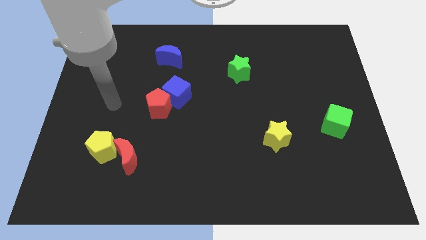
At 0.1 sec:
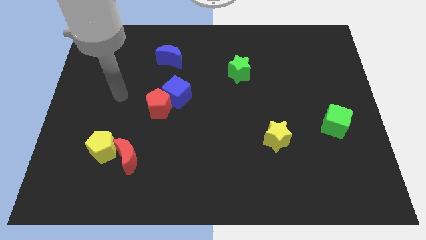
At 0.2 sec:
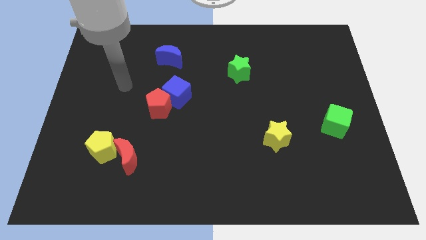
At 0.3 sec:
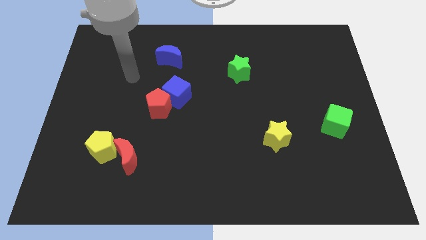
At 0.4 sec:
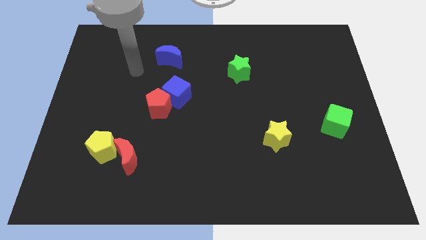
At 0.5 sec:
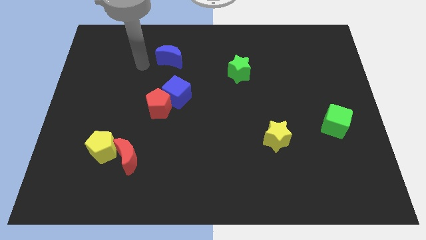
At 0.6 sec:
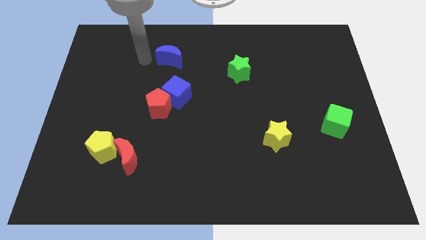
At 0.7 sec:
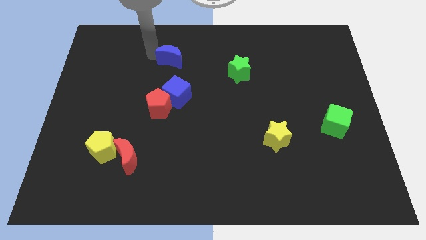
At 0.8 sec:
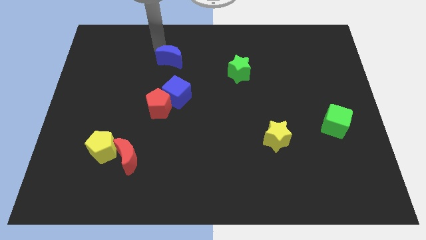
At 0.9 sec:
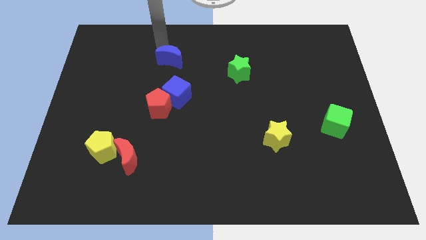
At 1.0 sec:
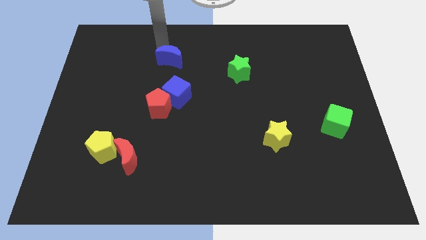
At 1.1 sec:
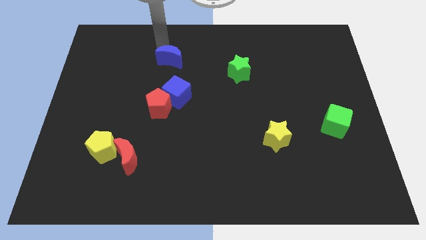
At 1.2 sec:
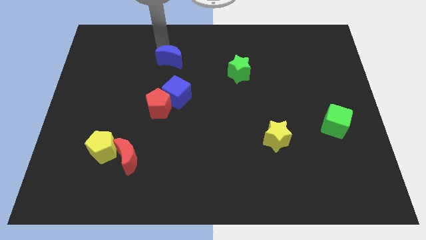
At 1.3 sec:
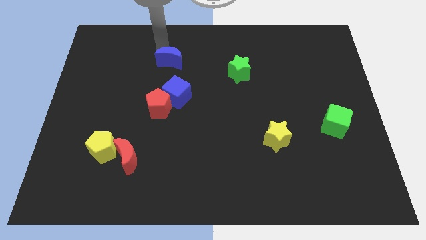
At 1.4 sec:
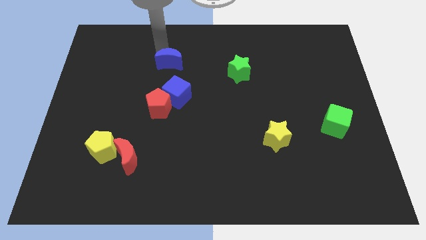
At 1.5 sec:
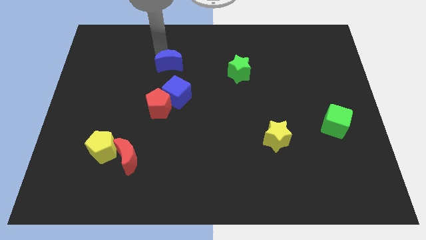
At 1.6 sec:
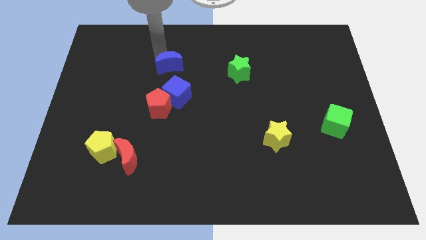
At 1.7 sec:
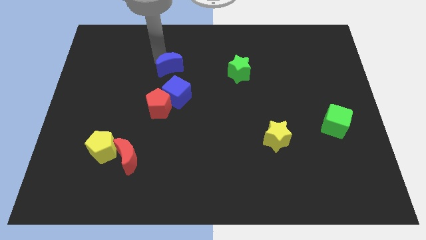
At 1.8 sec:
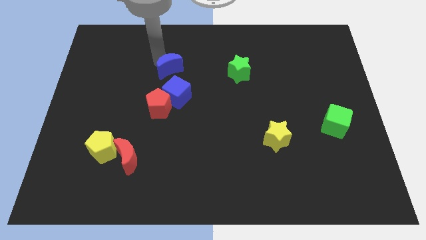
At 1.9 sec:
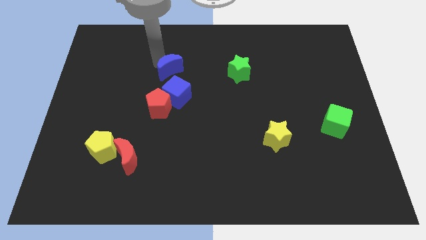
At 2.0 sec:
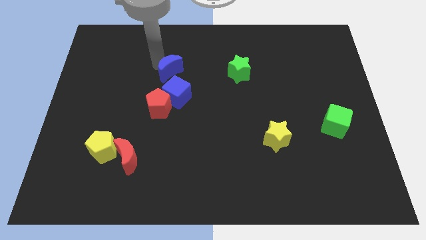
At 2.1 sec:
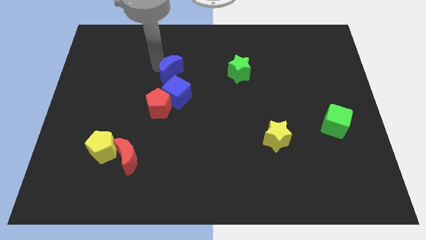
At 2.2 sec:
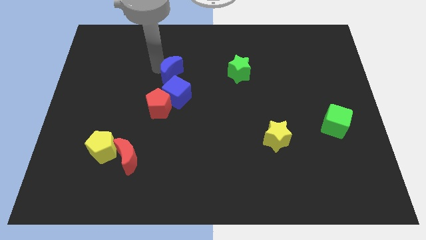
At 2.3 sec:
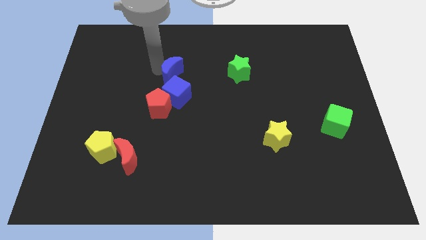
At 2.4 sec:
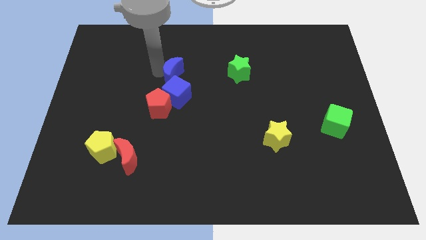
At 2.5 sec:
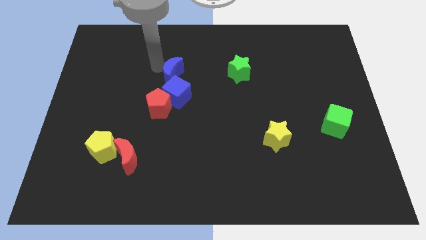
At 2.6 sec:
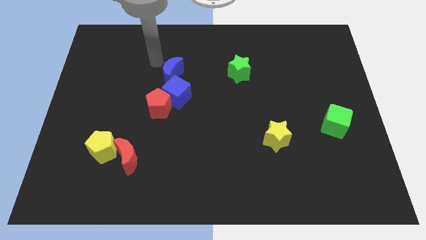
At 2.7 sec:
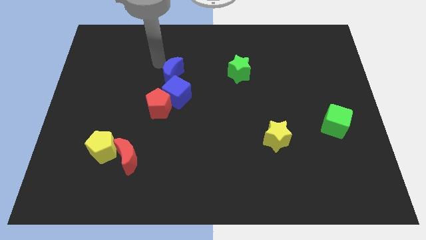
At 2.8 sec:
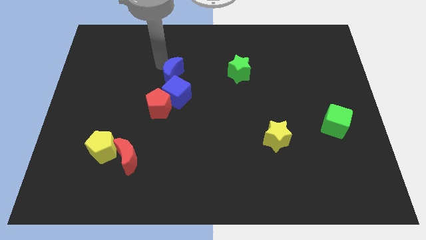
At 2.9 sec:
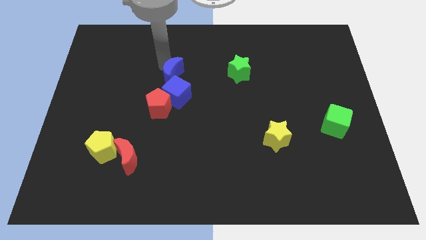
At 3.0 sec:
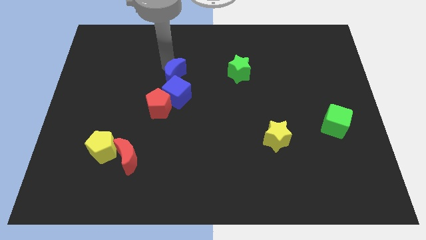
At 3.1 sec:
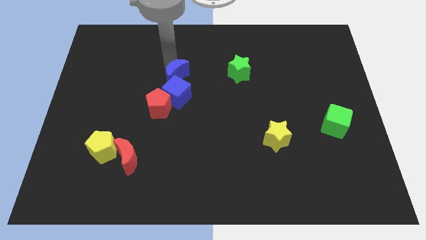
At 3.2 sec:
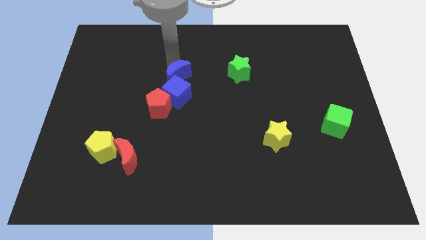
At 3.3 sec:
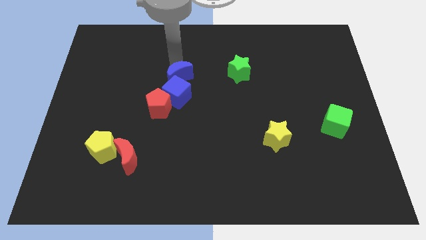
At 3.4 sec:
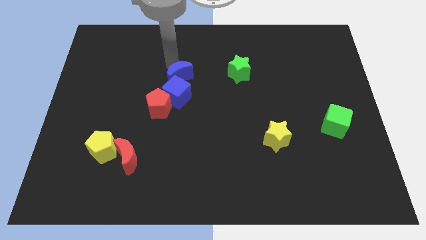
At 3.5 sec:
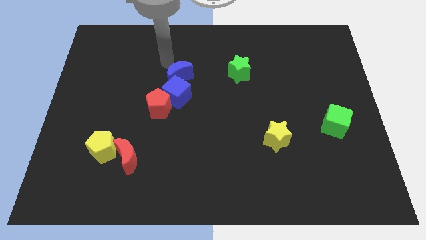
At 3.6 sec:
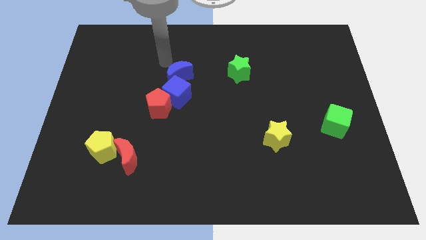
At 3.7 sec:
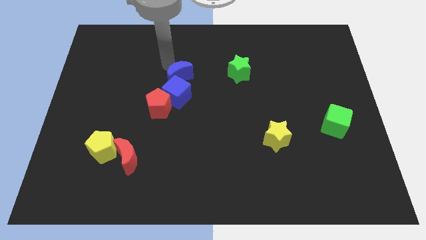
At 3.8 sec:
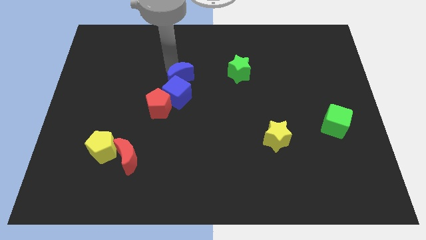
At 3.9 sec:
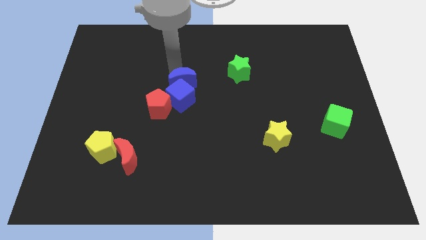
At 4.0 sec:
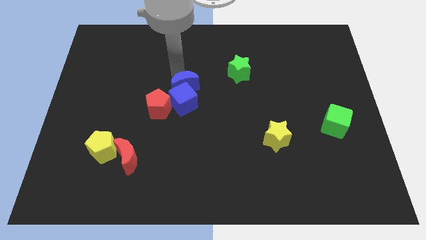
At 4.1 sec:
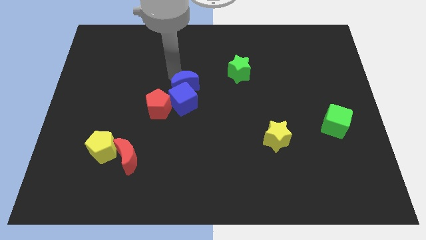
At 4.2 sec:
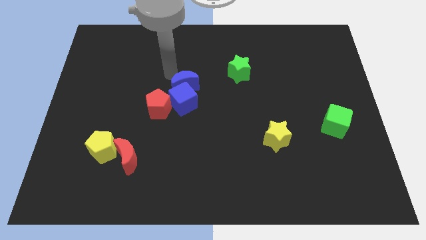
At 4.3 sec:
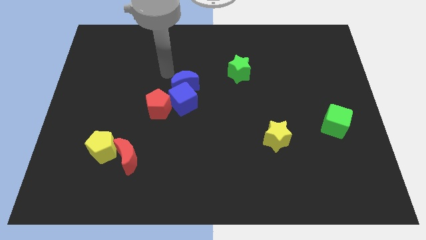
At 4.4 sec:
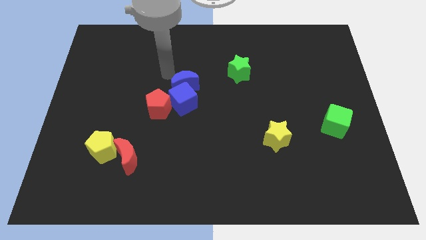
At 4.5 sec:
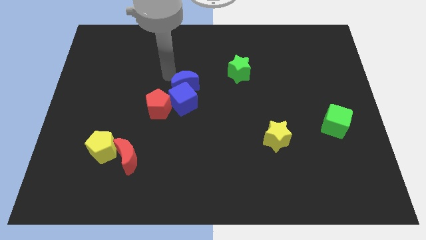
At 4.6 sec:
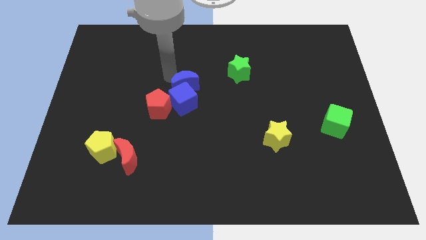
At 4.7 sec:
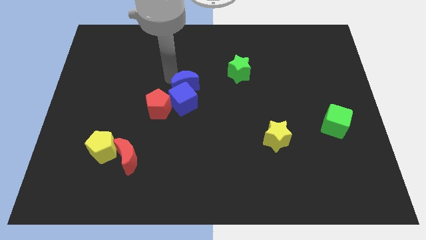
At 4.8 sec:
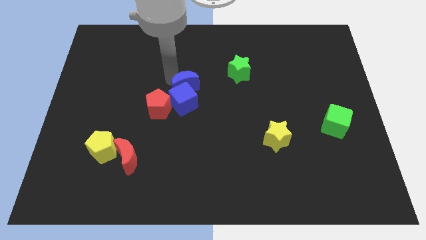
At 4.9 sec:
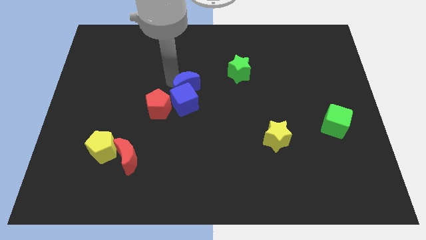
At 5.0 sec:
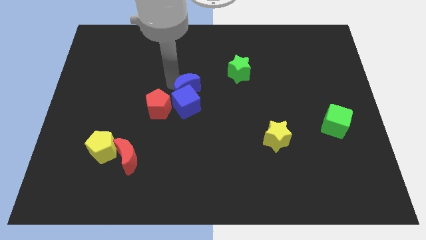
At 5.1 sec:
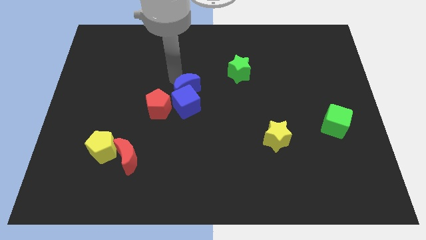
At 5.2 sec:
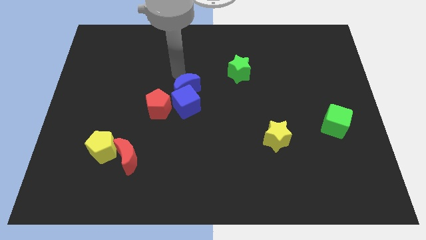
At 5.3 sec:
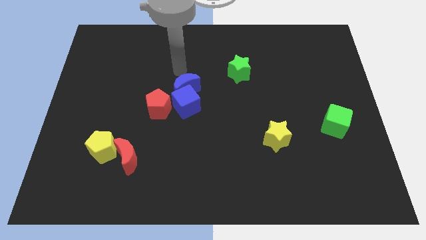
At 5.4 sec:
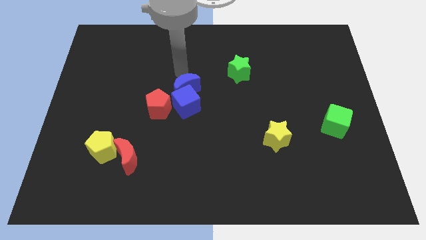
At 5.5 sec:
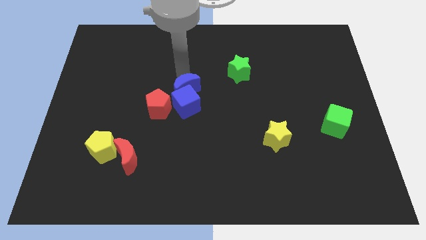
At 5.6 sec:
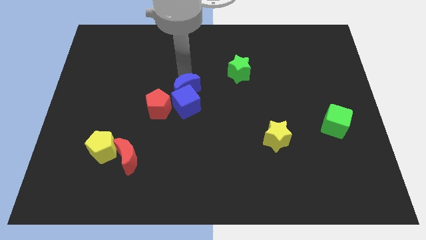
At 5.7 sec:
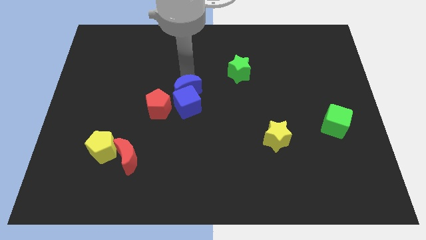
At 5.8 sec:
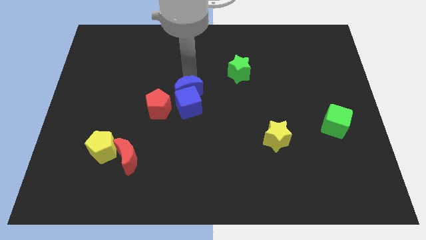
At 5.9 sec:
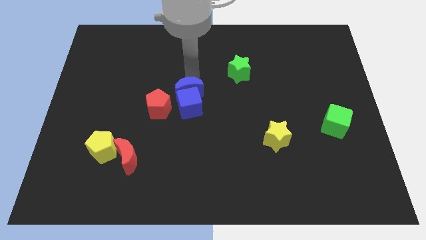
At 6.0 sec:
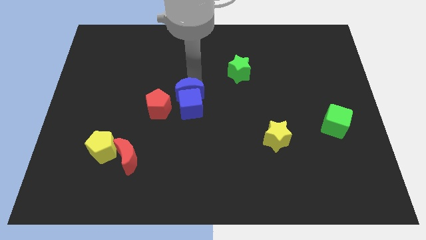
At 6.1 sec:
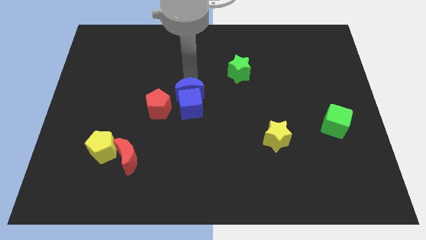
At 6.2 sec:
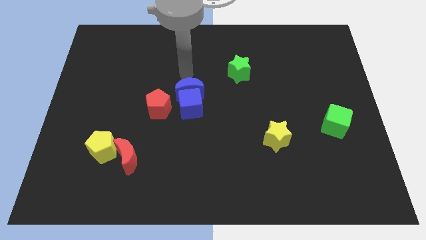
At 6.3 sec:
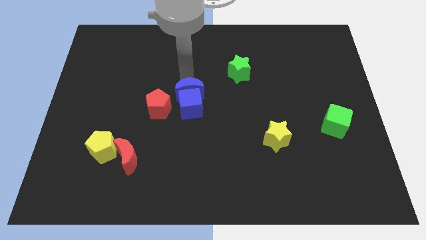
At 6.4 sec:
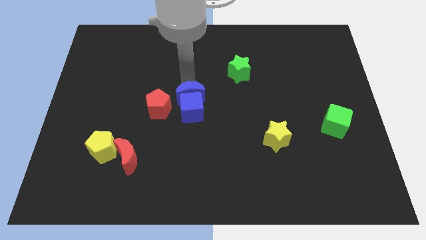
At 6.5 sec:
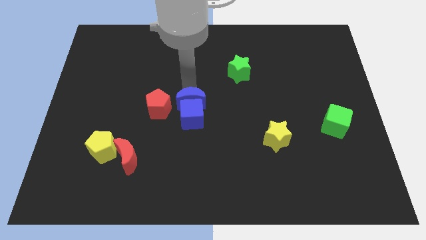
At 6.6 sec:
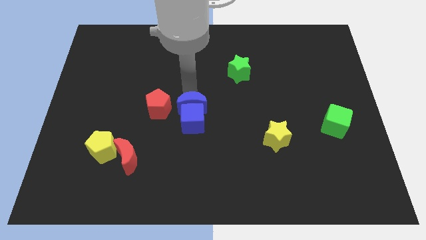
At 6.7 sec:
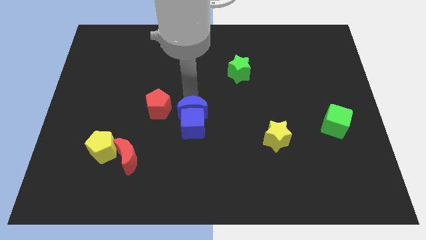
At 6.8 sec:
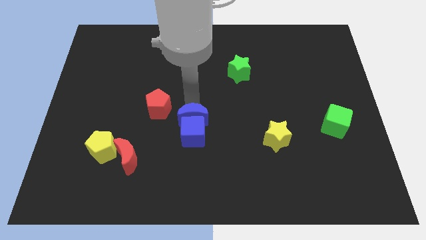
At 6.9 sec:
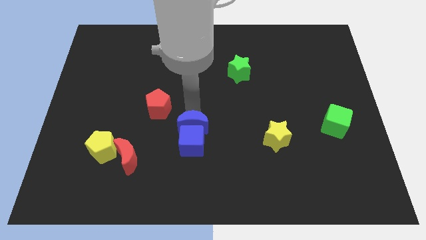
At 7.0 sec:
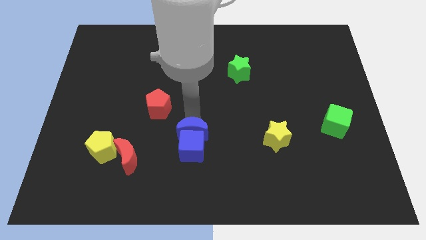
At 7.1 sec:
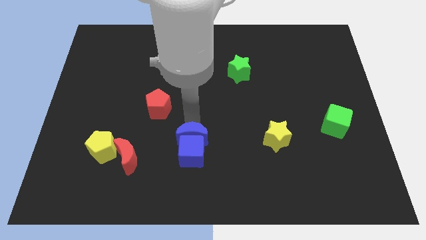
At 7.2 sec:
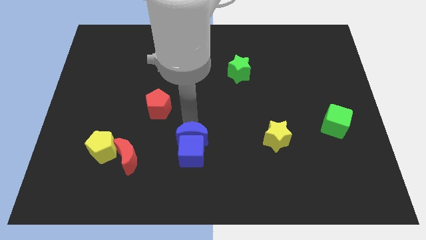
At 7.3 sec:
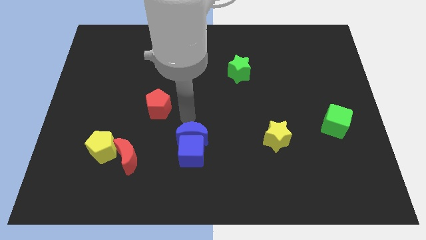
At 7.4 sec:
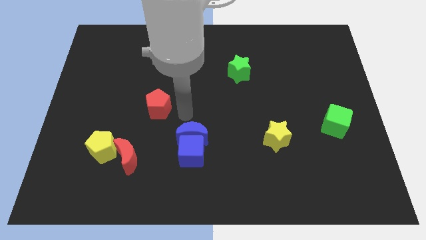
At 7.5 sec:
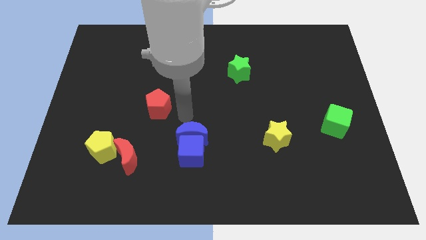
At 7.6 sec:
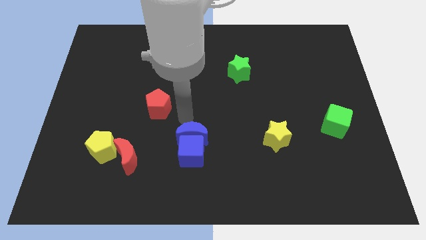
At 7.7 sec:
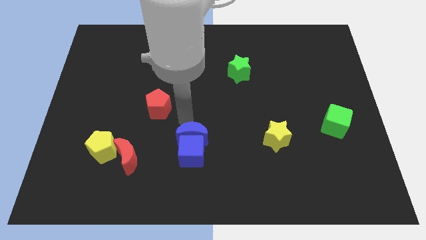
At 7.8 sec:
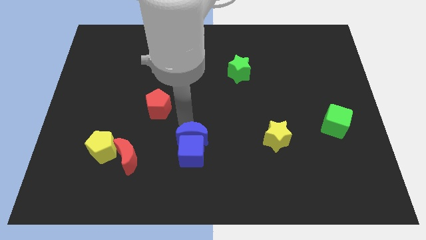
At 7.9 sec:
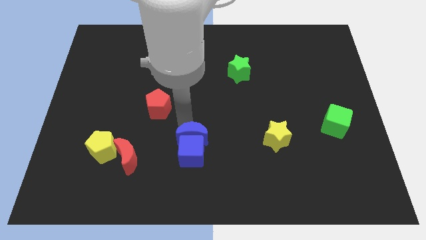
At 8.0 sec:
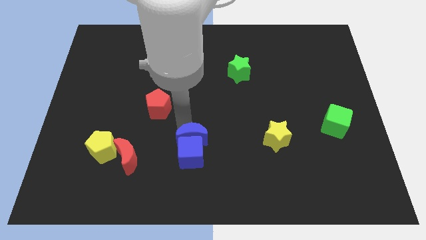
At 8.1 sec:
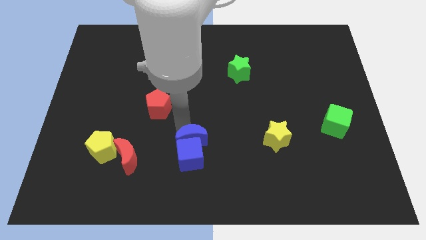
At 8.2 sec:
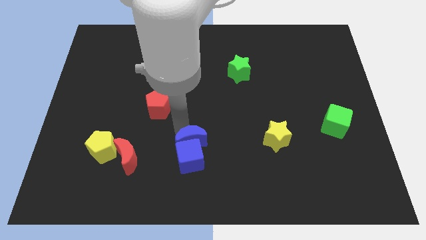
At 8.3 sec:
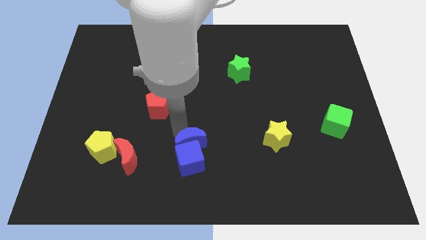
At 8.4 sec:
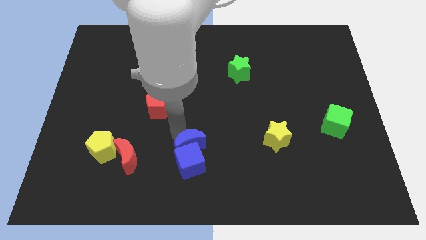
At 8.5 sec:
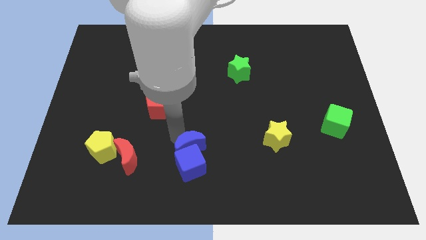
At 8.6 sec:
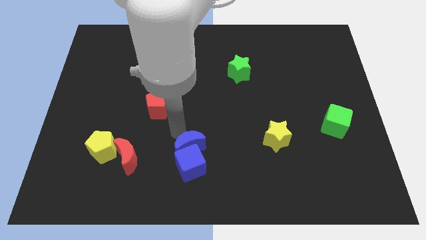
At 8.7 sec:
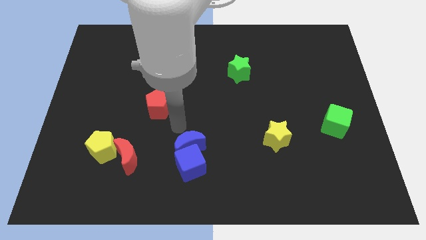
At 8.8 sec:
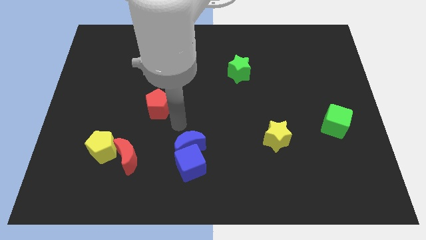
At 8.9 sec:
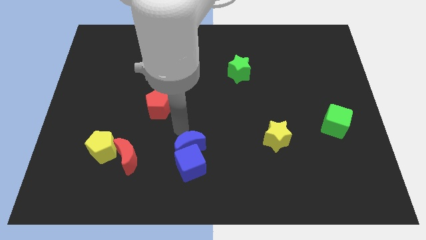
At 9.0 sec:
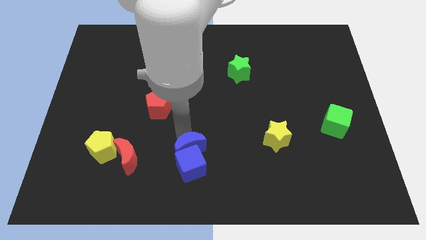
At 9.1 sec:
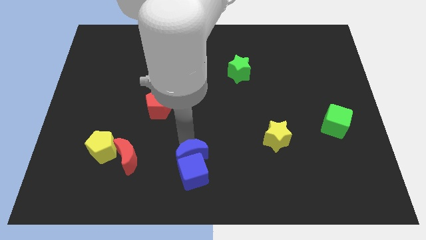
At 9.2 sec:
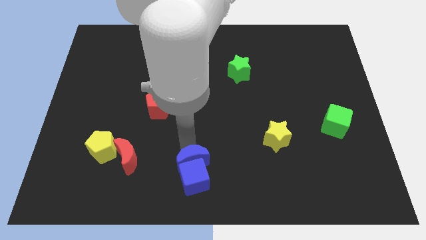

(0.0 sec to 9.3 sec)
slide the blue moon to the bottom
